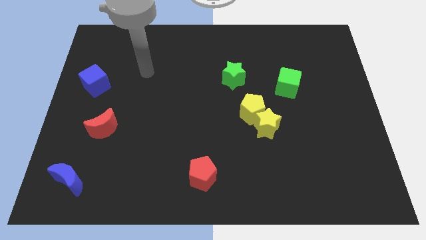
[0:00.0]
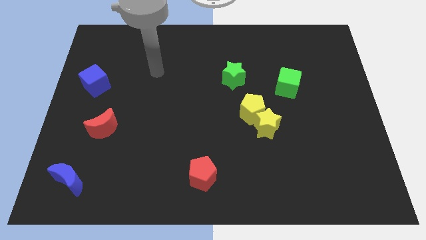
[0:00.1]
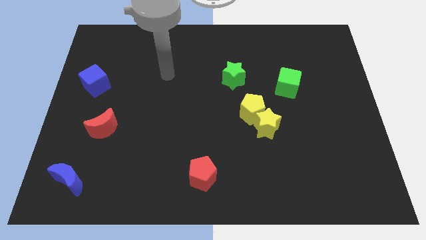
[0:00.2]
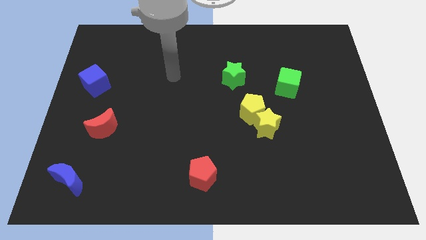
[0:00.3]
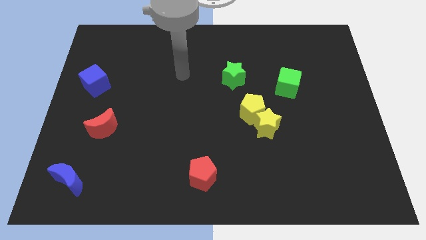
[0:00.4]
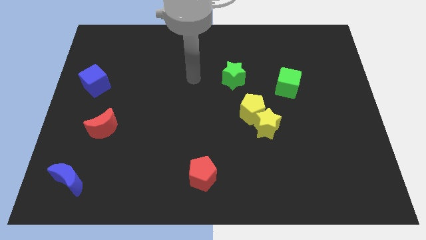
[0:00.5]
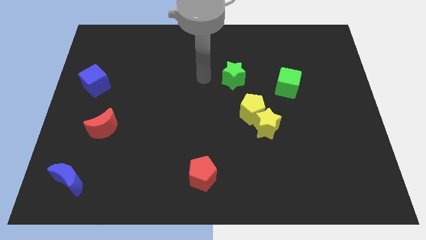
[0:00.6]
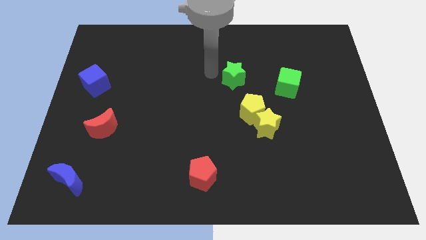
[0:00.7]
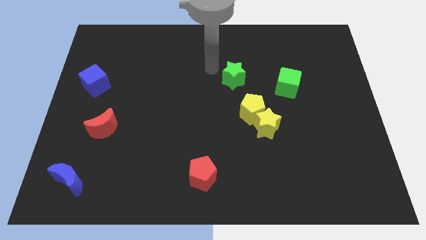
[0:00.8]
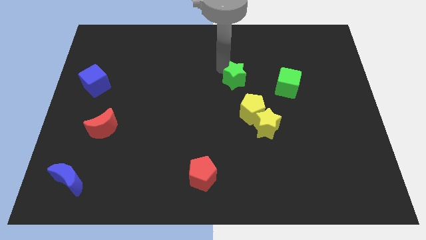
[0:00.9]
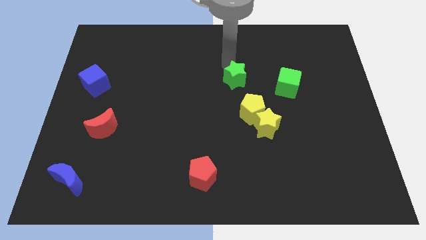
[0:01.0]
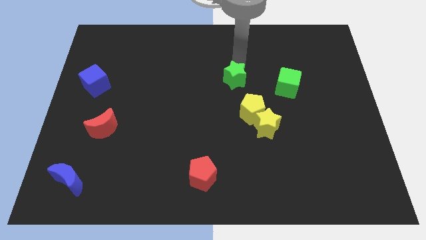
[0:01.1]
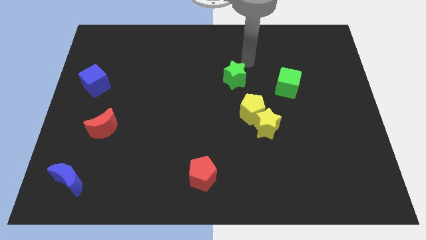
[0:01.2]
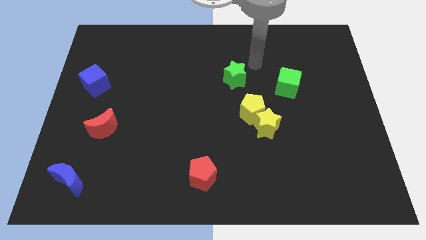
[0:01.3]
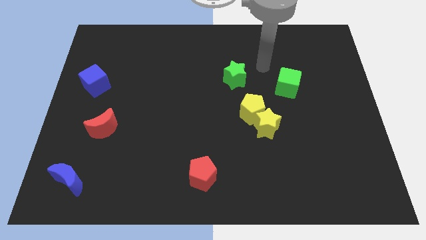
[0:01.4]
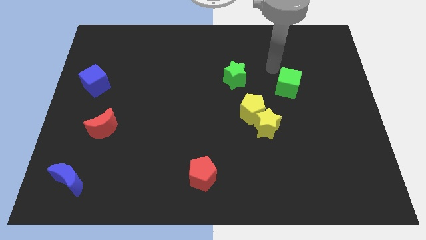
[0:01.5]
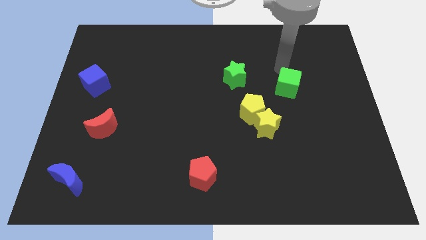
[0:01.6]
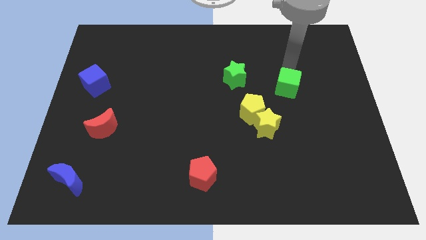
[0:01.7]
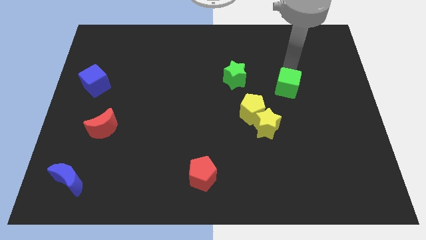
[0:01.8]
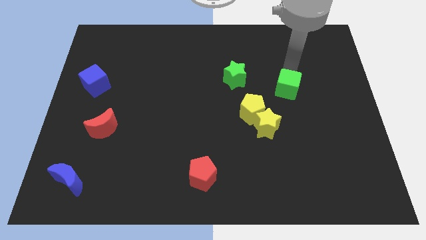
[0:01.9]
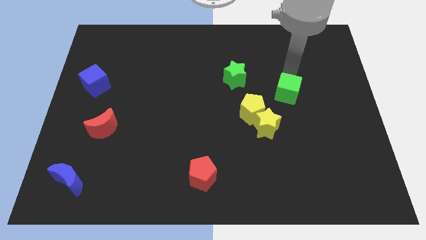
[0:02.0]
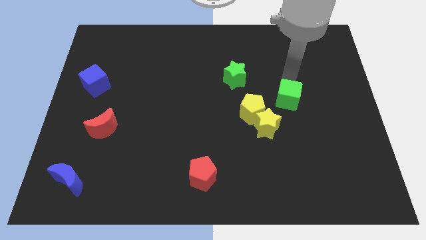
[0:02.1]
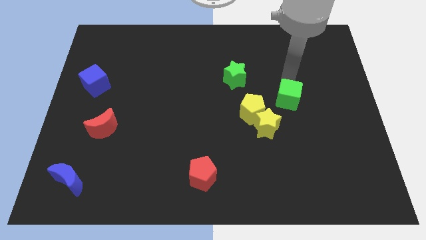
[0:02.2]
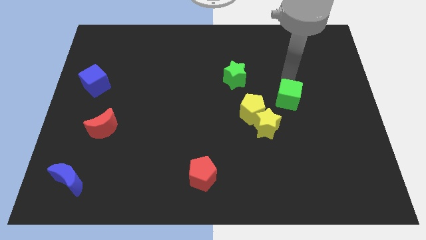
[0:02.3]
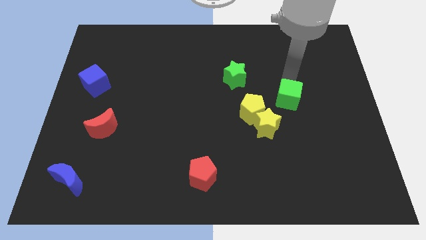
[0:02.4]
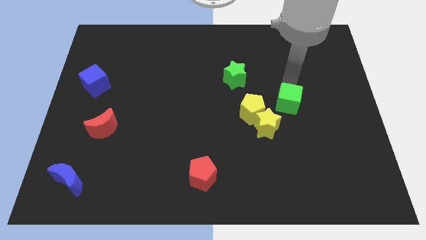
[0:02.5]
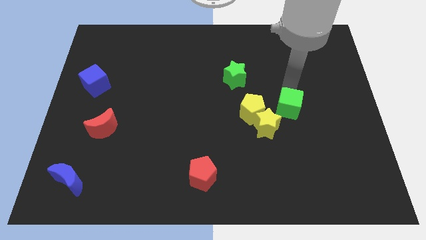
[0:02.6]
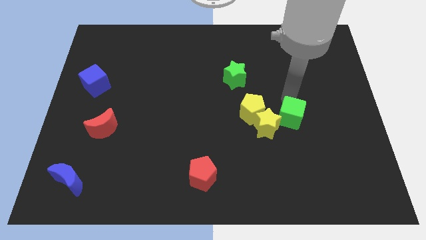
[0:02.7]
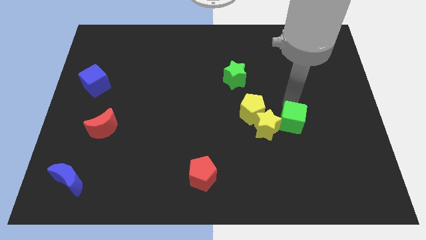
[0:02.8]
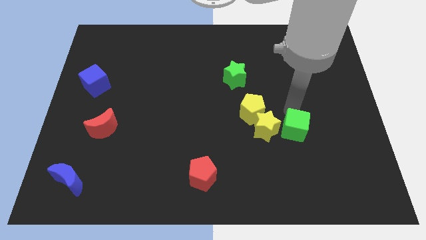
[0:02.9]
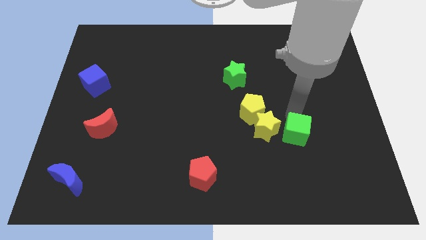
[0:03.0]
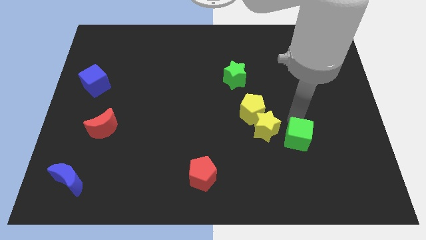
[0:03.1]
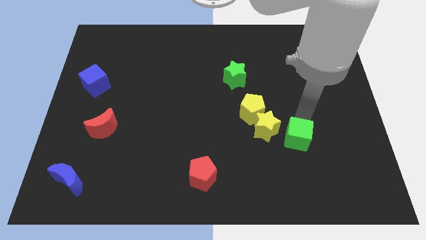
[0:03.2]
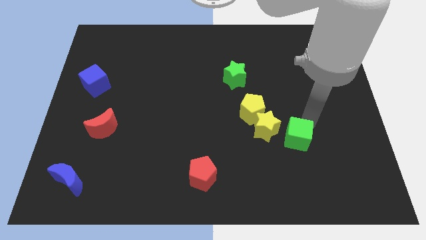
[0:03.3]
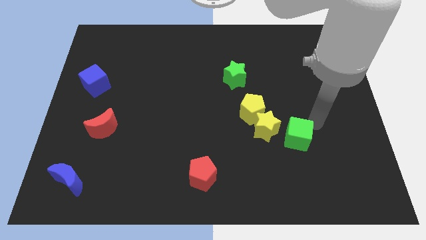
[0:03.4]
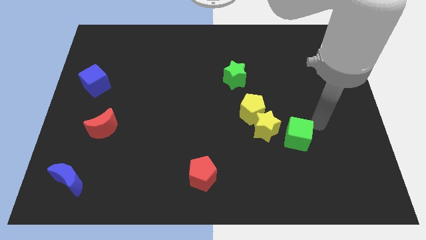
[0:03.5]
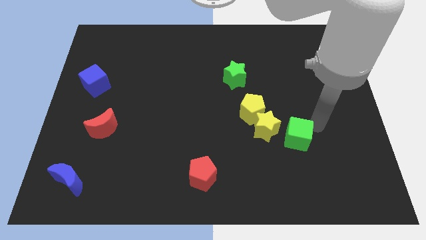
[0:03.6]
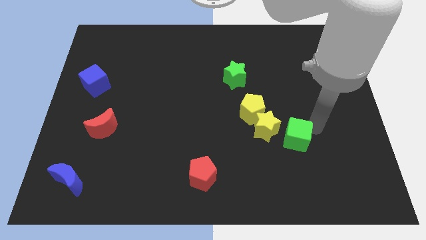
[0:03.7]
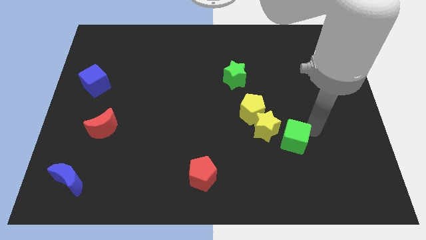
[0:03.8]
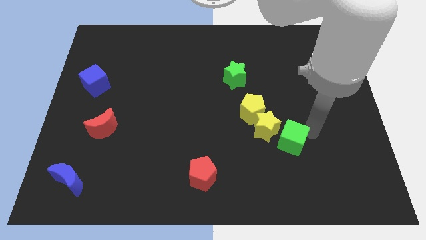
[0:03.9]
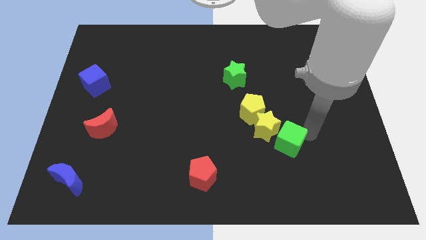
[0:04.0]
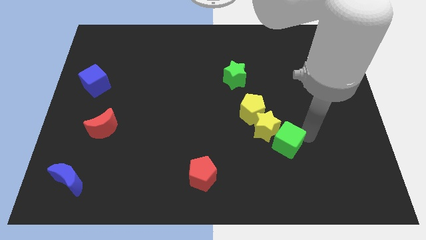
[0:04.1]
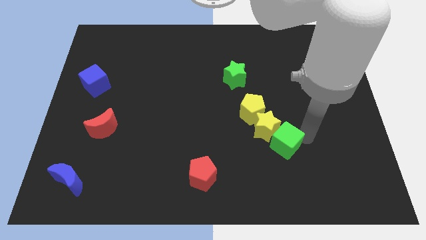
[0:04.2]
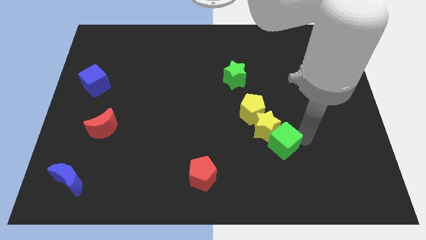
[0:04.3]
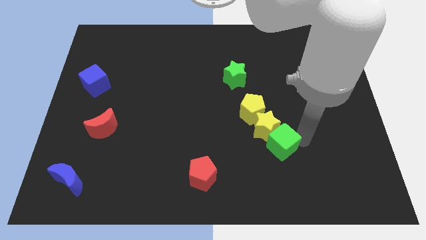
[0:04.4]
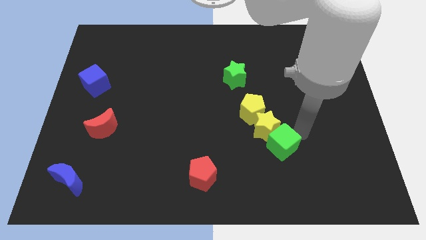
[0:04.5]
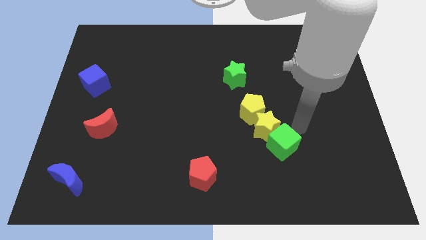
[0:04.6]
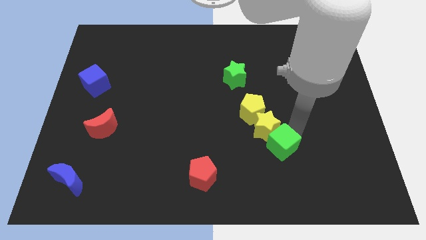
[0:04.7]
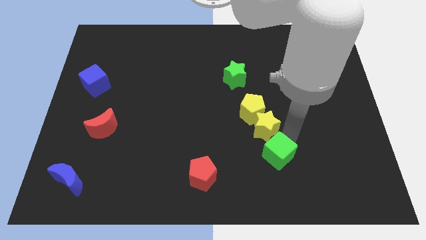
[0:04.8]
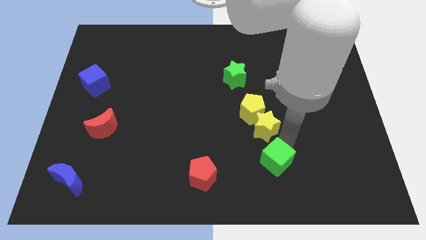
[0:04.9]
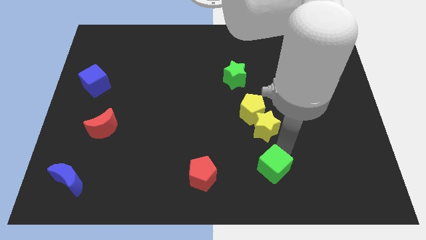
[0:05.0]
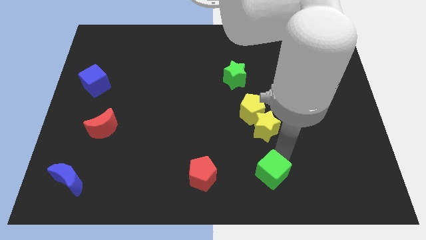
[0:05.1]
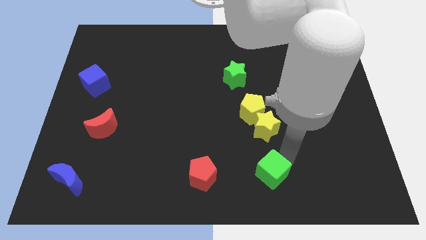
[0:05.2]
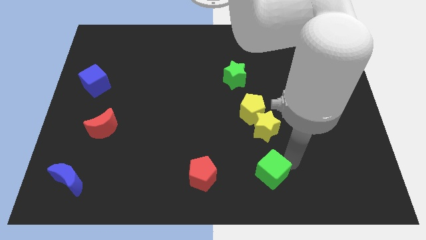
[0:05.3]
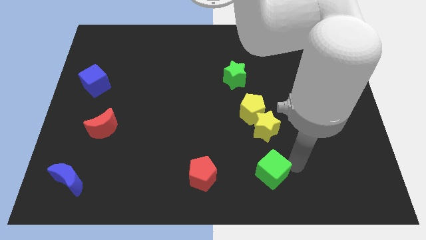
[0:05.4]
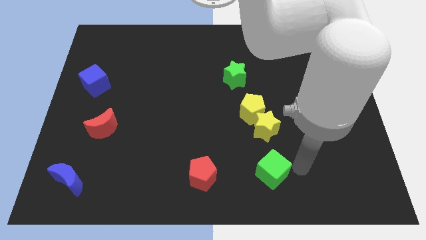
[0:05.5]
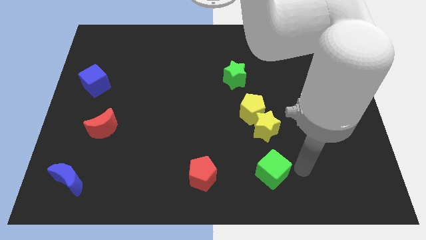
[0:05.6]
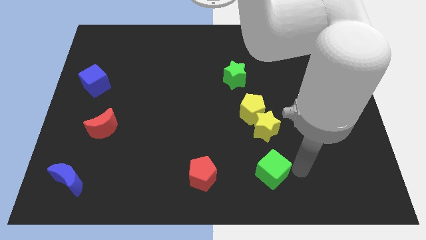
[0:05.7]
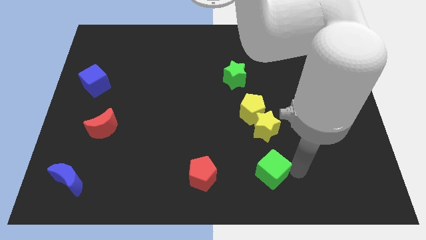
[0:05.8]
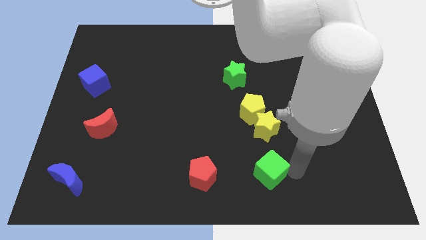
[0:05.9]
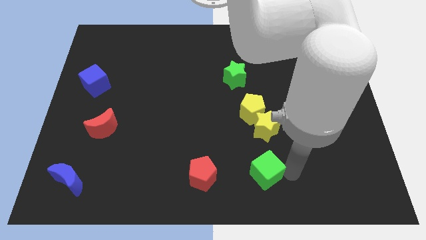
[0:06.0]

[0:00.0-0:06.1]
push the green cube to the bottom side

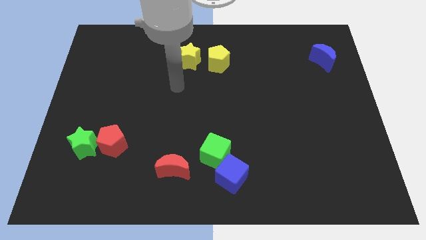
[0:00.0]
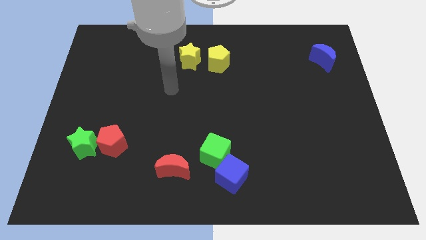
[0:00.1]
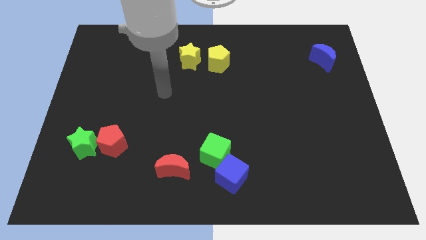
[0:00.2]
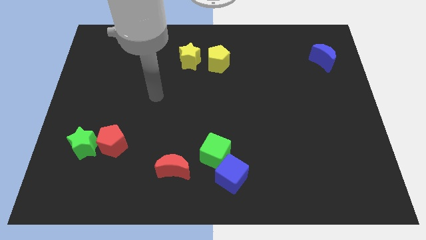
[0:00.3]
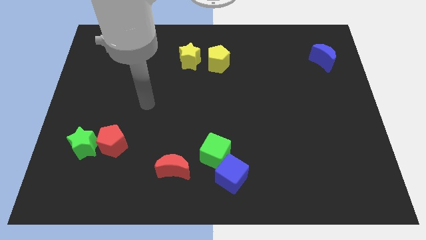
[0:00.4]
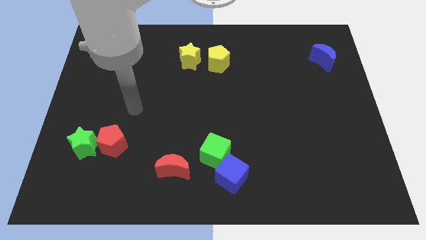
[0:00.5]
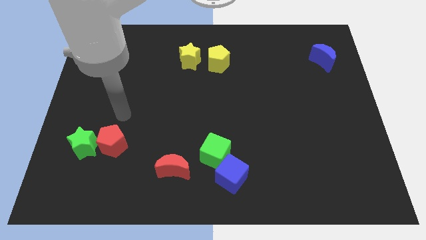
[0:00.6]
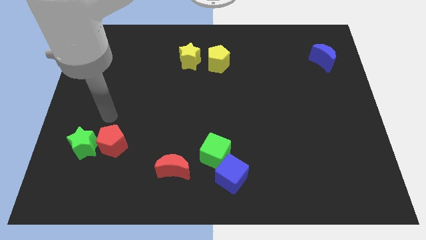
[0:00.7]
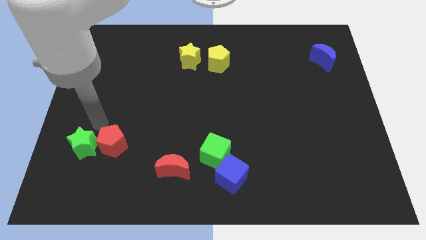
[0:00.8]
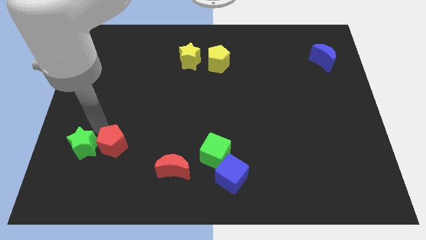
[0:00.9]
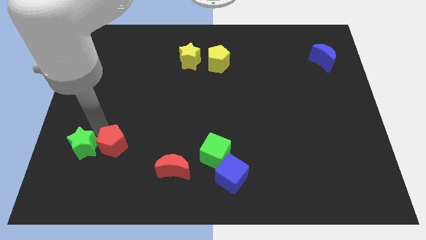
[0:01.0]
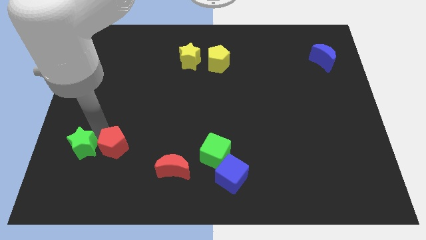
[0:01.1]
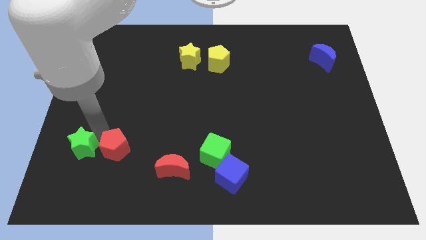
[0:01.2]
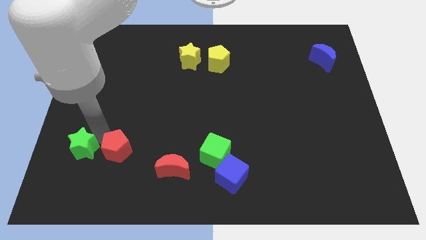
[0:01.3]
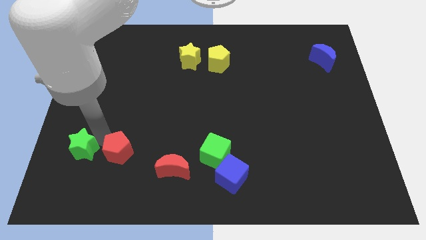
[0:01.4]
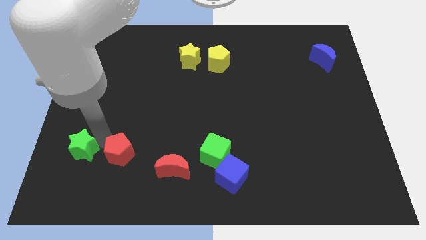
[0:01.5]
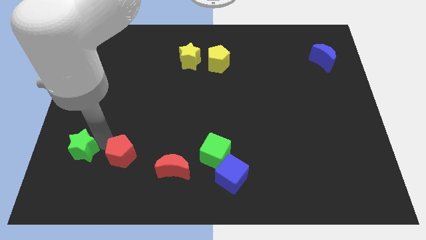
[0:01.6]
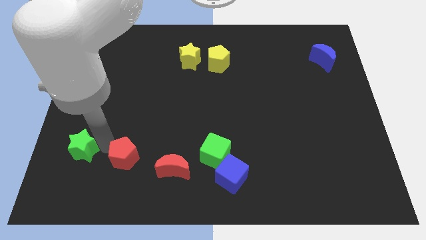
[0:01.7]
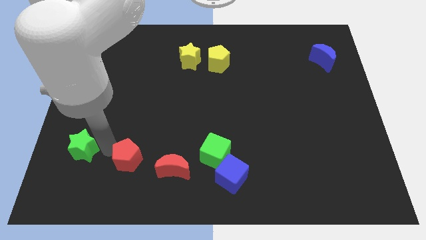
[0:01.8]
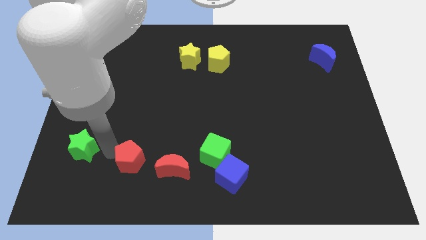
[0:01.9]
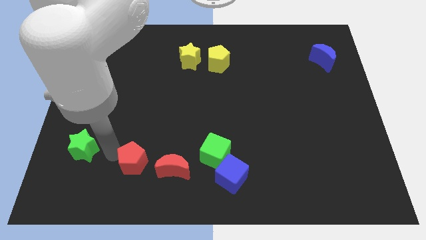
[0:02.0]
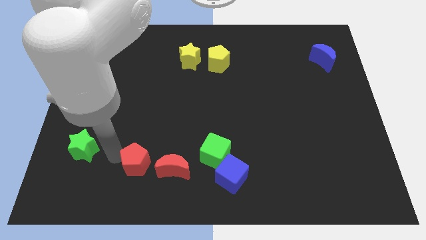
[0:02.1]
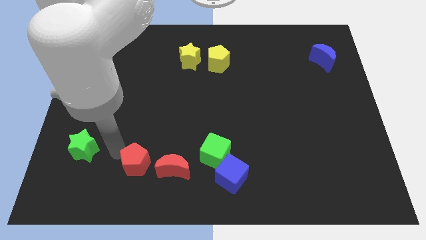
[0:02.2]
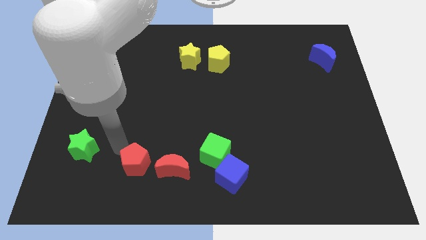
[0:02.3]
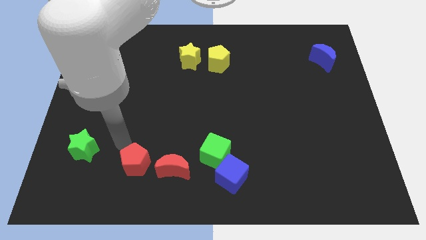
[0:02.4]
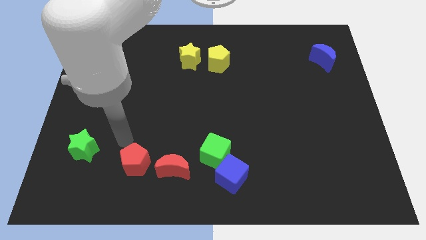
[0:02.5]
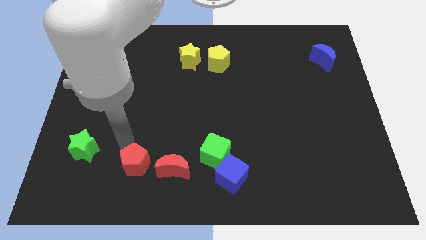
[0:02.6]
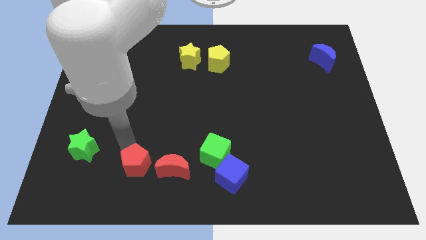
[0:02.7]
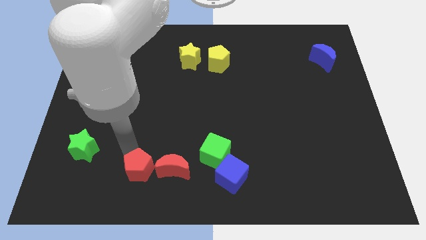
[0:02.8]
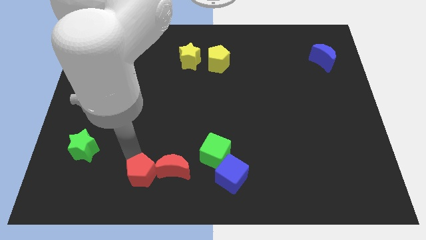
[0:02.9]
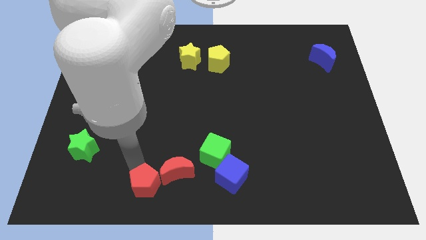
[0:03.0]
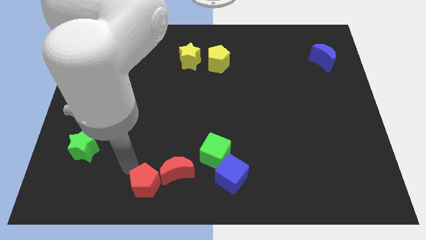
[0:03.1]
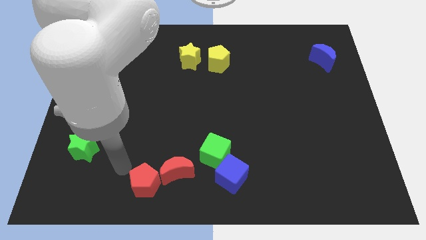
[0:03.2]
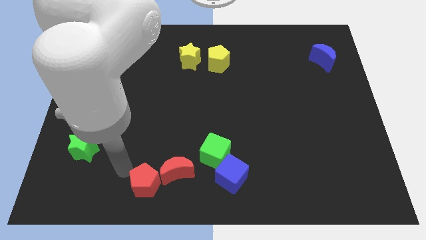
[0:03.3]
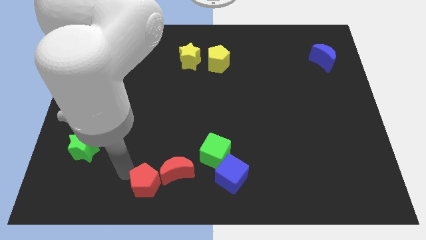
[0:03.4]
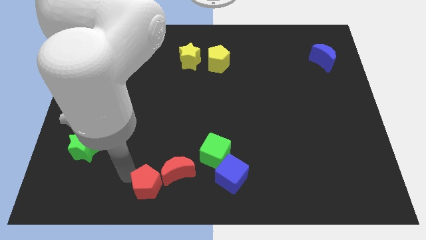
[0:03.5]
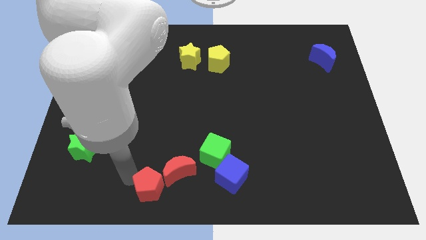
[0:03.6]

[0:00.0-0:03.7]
push the red pentagon to the bottom
